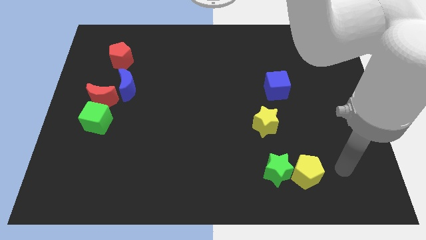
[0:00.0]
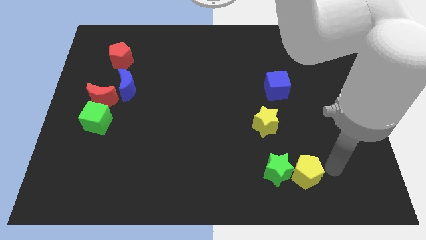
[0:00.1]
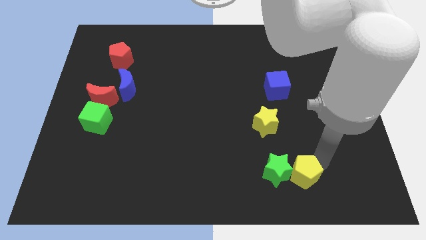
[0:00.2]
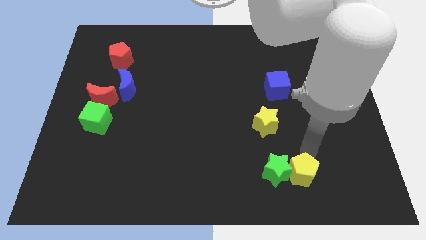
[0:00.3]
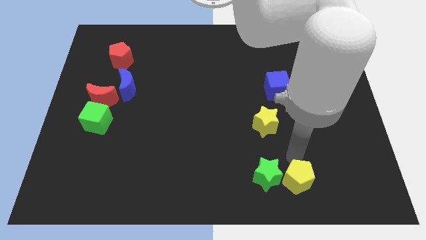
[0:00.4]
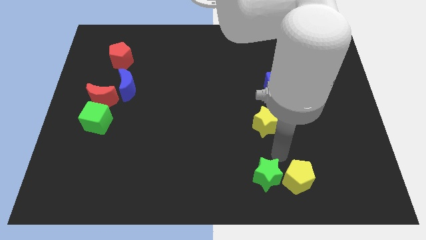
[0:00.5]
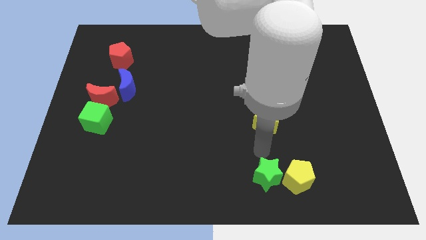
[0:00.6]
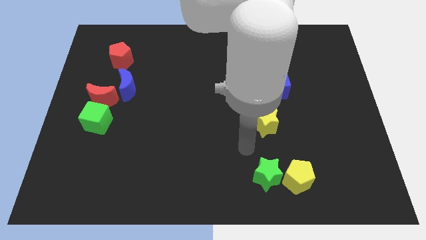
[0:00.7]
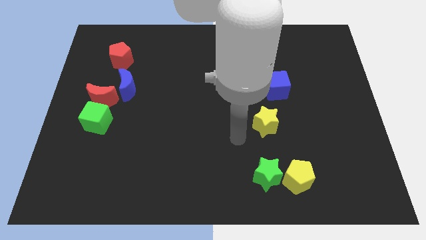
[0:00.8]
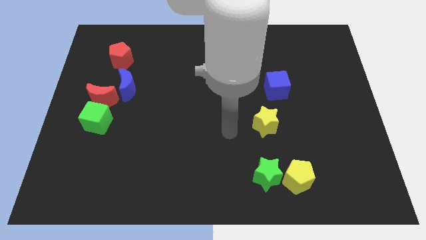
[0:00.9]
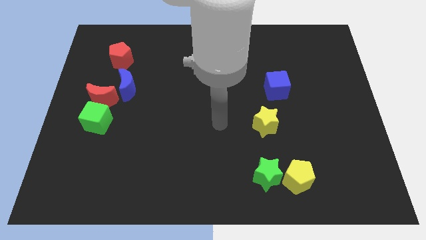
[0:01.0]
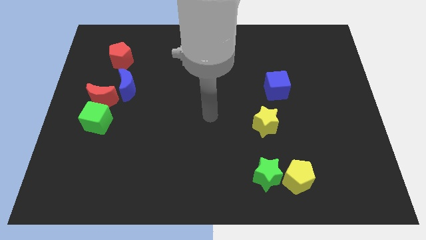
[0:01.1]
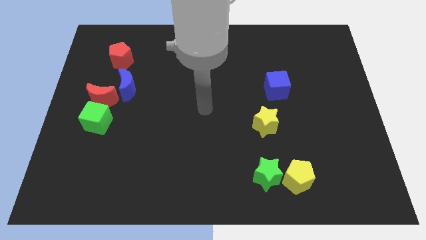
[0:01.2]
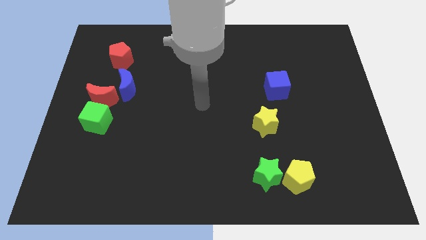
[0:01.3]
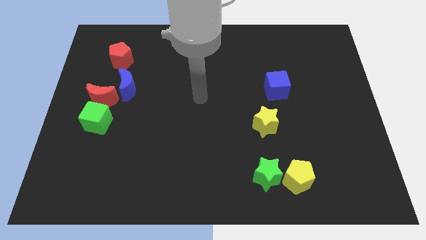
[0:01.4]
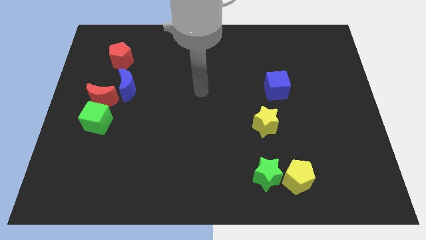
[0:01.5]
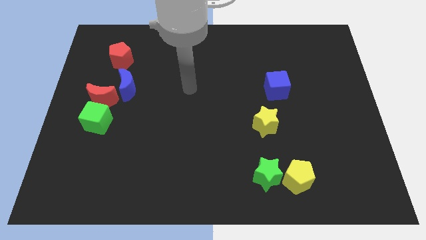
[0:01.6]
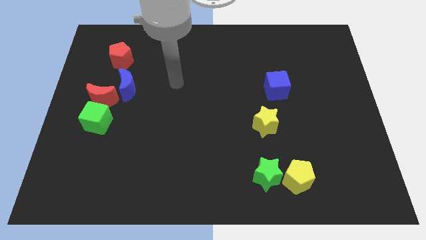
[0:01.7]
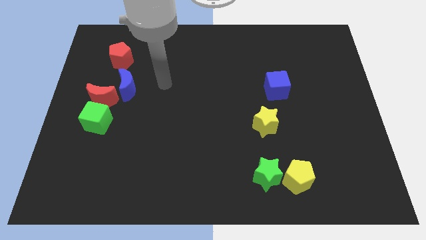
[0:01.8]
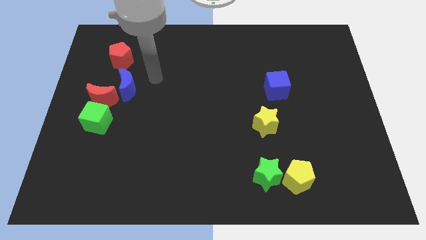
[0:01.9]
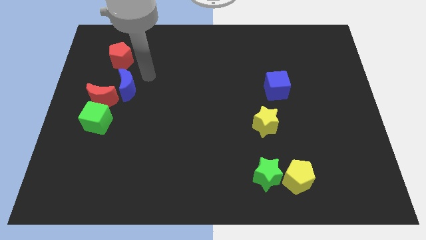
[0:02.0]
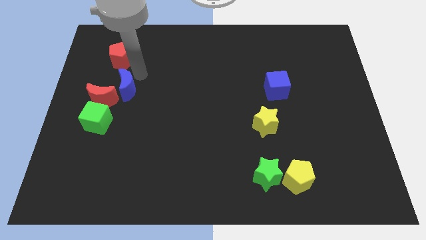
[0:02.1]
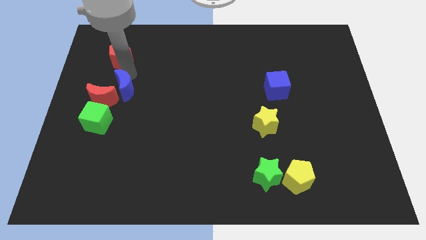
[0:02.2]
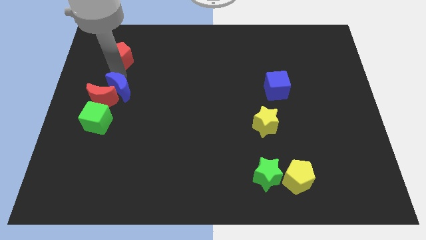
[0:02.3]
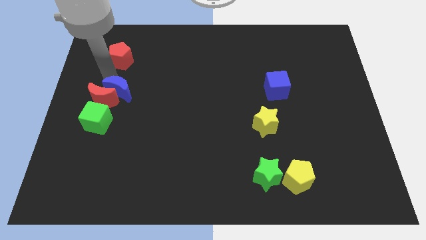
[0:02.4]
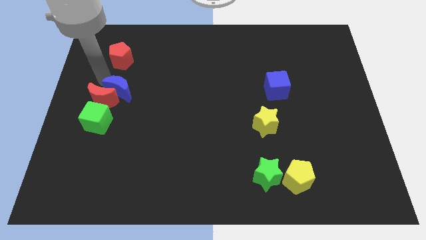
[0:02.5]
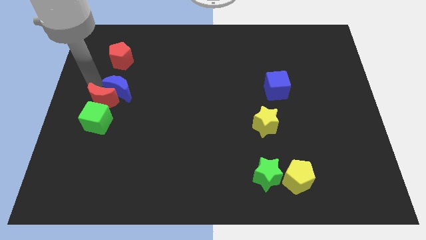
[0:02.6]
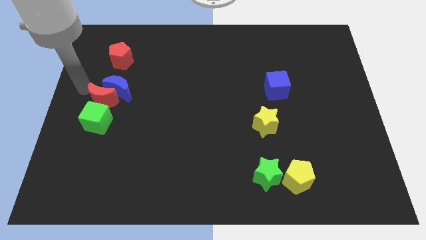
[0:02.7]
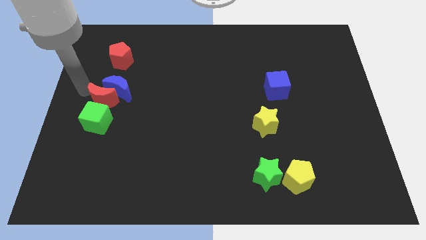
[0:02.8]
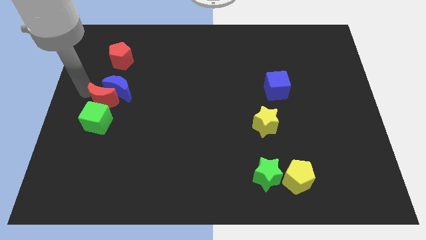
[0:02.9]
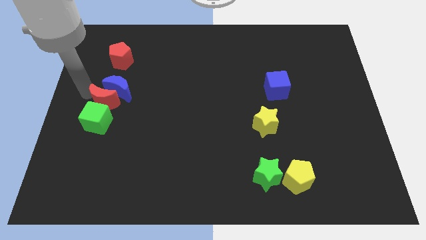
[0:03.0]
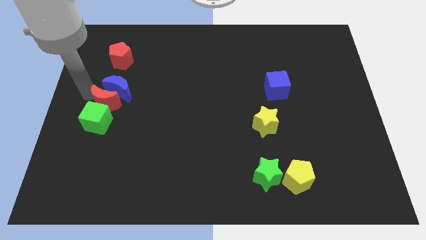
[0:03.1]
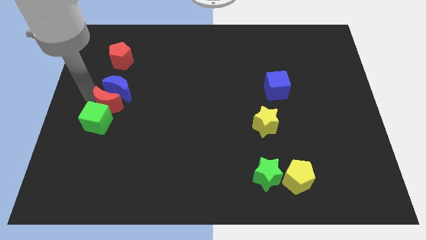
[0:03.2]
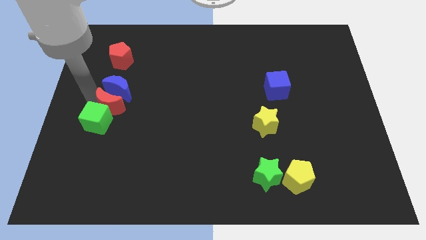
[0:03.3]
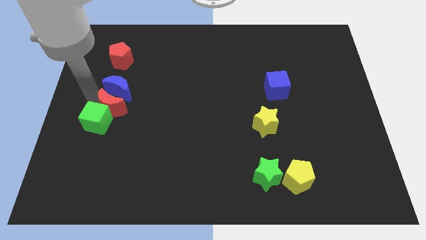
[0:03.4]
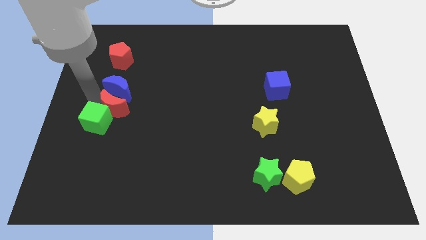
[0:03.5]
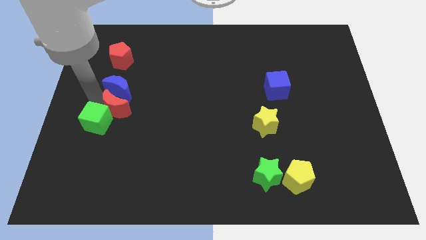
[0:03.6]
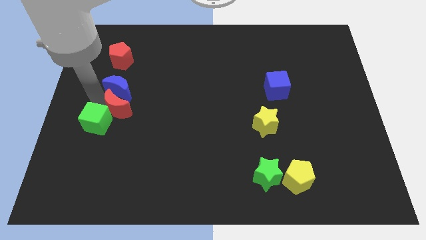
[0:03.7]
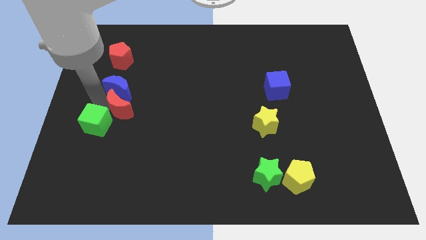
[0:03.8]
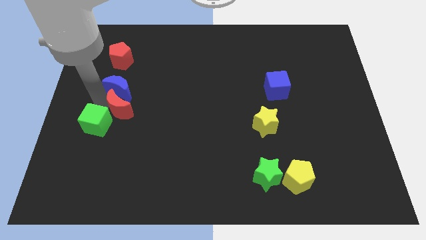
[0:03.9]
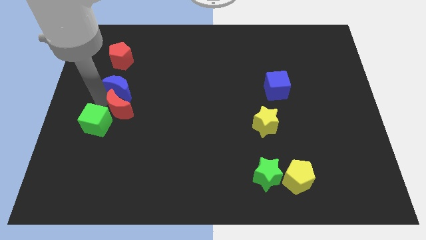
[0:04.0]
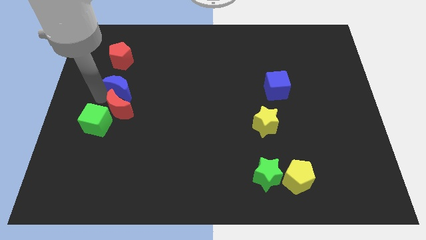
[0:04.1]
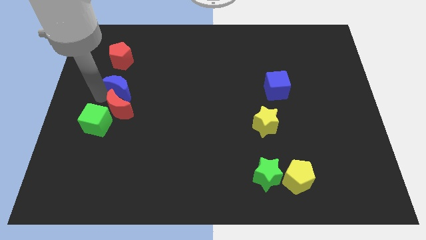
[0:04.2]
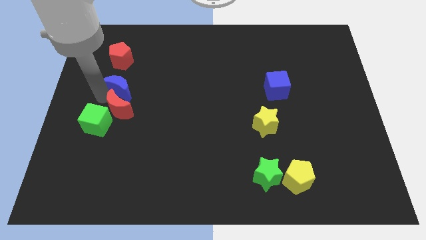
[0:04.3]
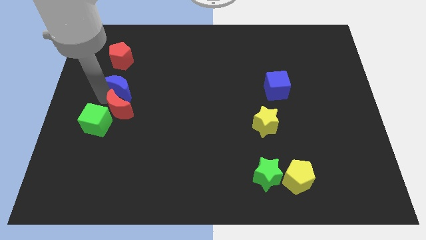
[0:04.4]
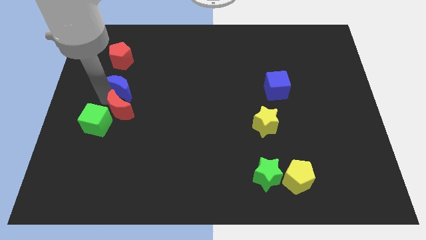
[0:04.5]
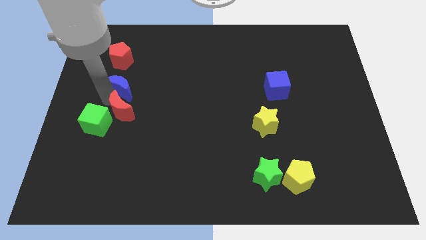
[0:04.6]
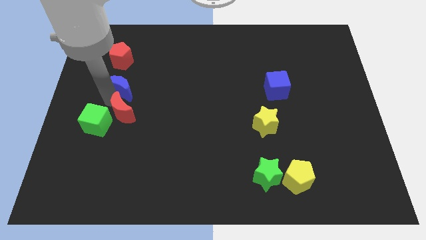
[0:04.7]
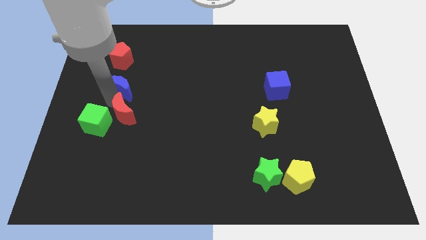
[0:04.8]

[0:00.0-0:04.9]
slide the red moon a bit diagonally down and to the right

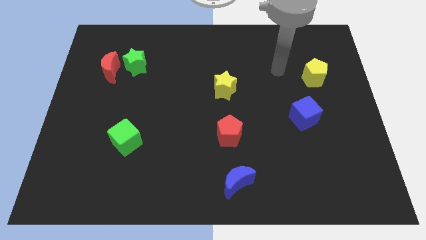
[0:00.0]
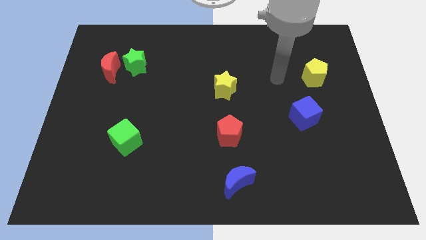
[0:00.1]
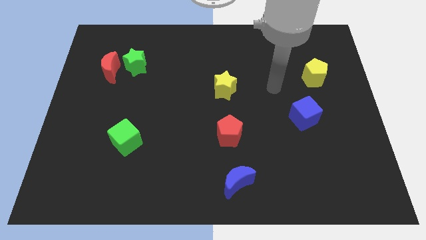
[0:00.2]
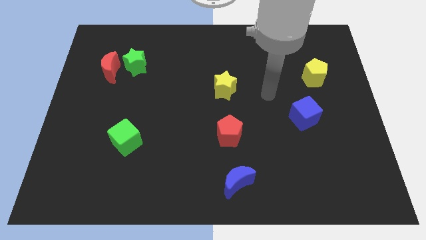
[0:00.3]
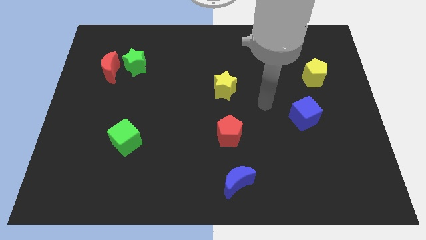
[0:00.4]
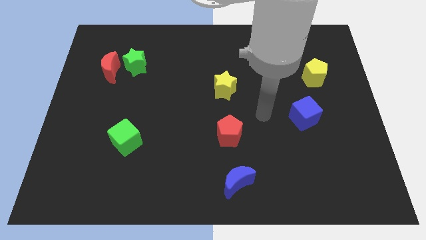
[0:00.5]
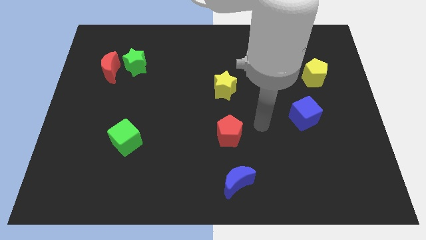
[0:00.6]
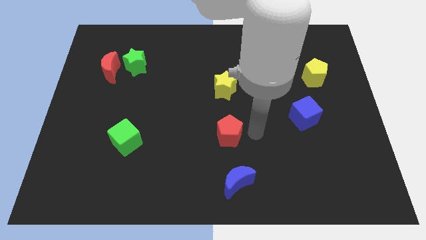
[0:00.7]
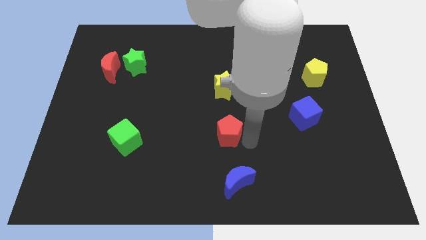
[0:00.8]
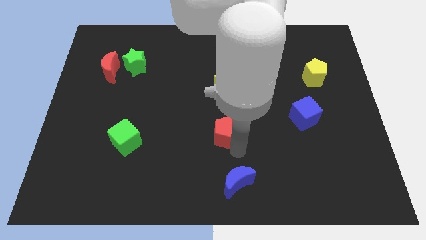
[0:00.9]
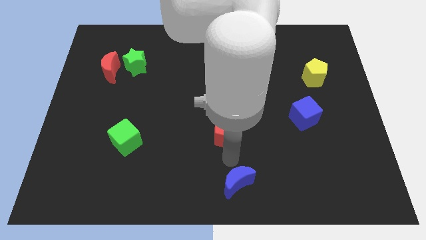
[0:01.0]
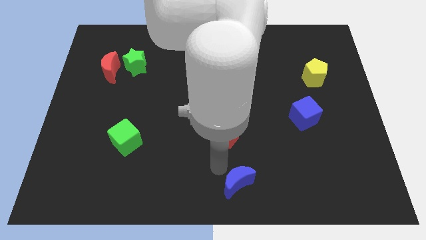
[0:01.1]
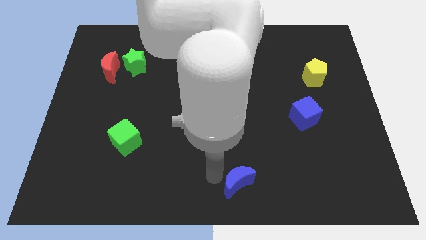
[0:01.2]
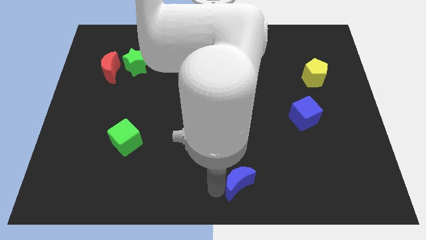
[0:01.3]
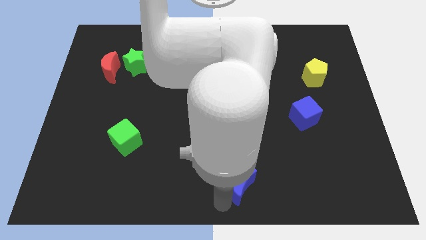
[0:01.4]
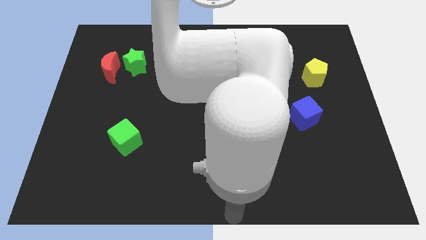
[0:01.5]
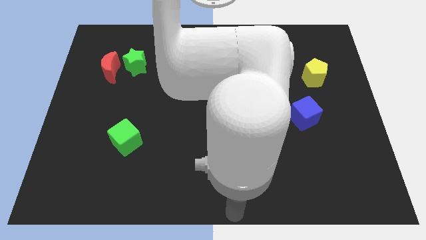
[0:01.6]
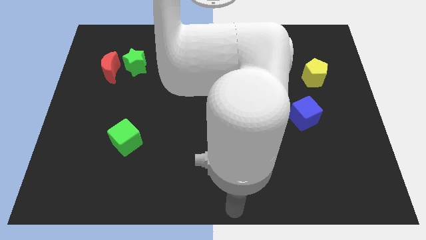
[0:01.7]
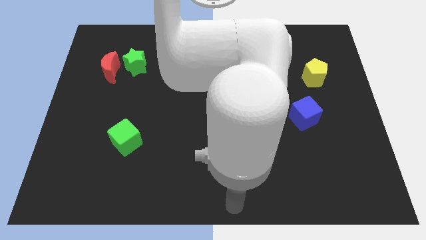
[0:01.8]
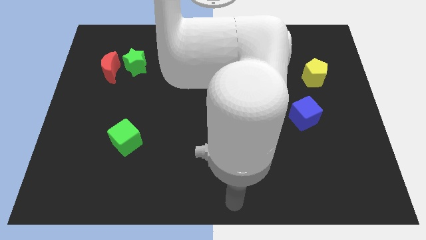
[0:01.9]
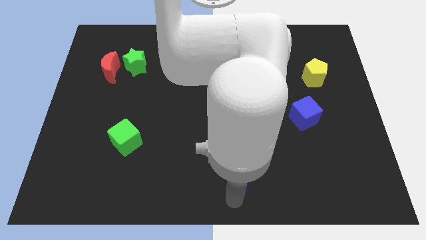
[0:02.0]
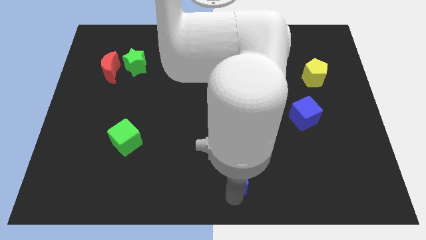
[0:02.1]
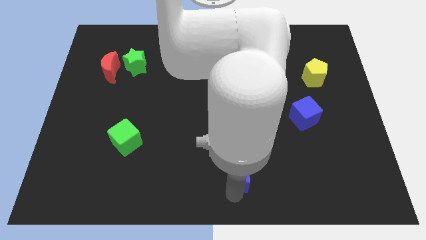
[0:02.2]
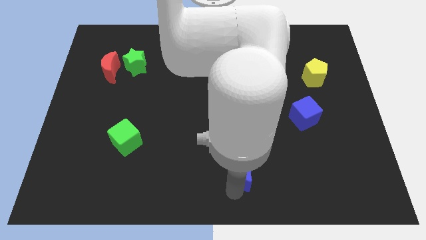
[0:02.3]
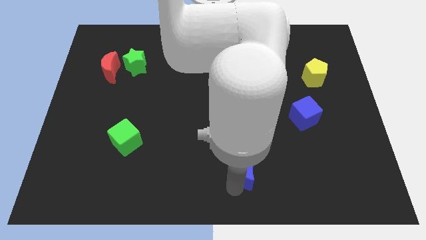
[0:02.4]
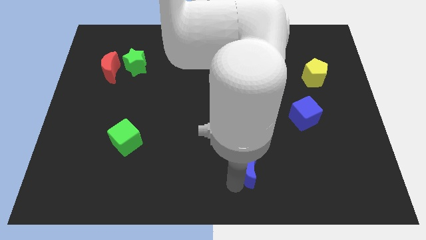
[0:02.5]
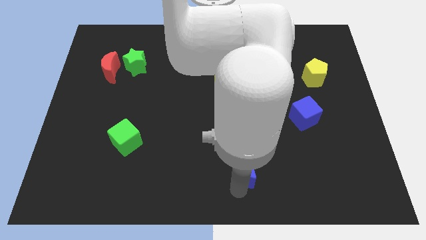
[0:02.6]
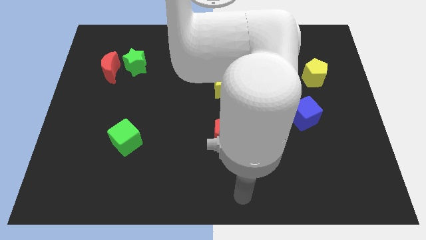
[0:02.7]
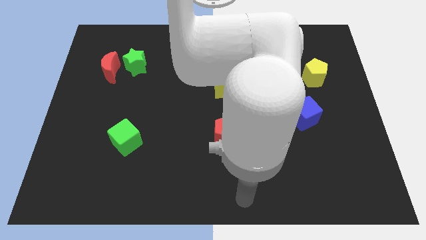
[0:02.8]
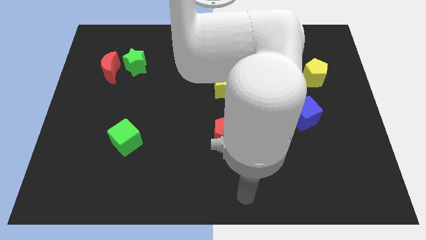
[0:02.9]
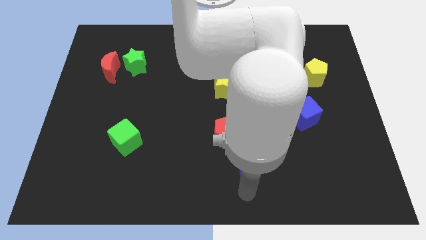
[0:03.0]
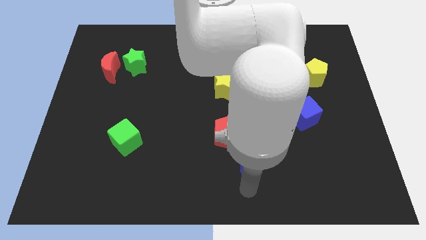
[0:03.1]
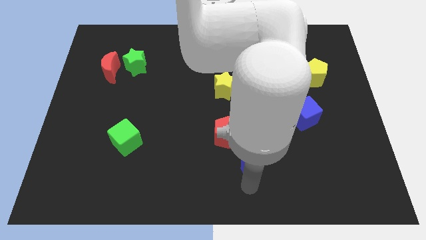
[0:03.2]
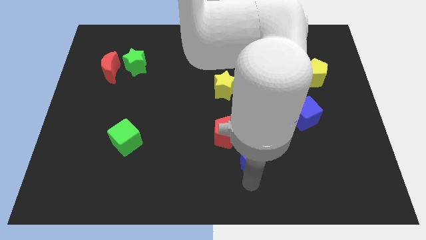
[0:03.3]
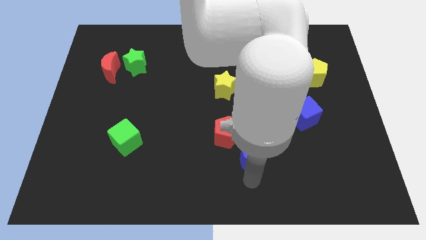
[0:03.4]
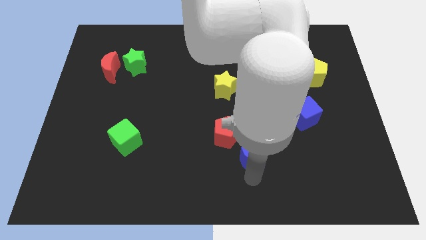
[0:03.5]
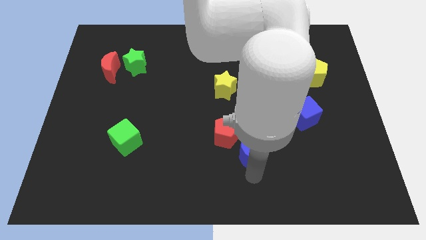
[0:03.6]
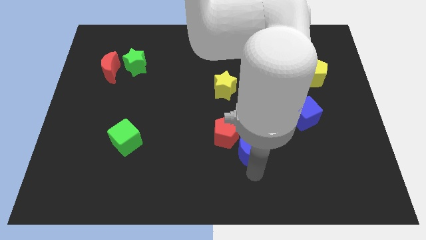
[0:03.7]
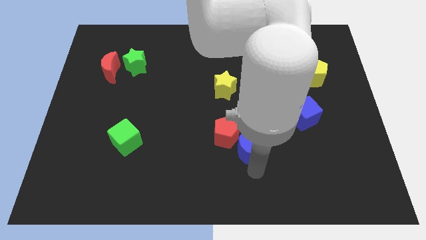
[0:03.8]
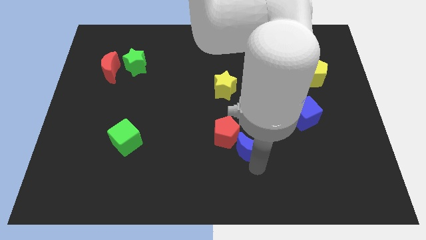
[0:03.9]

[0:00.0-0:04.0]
move the blue moon upwards somewhat
